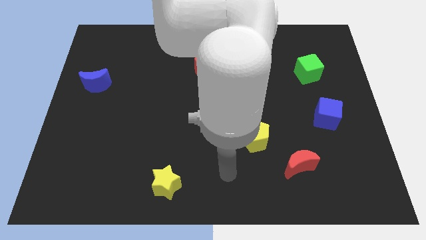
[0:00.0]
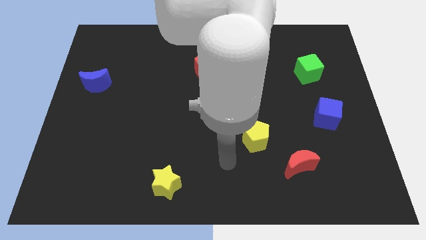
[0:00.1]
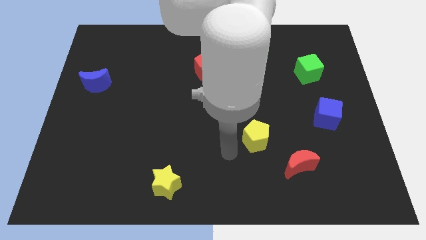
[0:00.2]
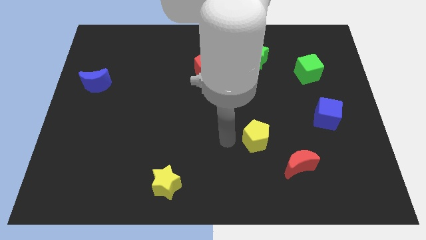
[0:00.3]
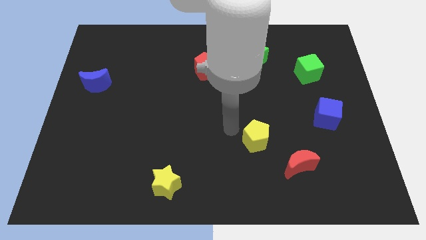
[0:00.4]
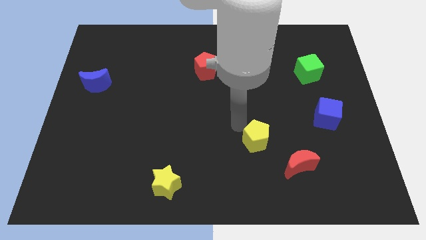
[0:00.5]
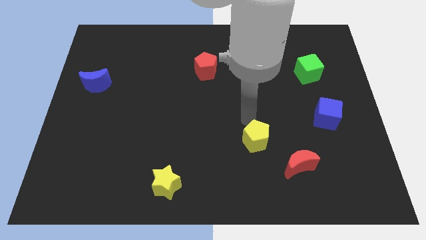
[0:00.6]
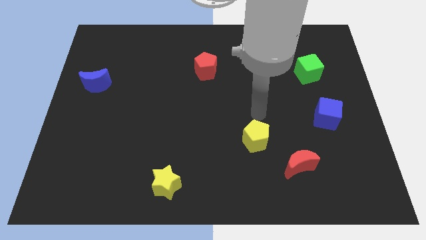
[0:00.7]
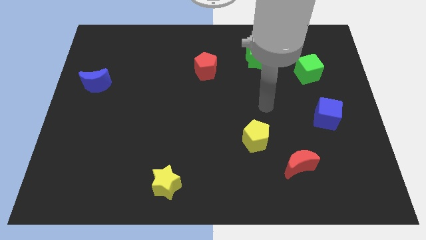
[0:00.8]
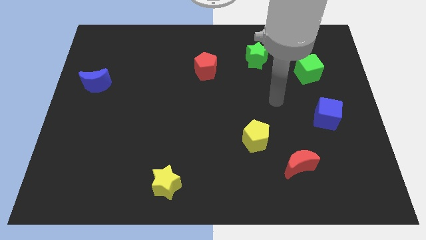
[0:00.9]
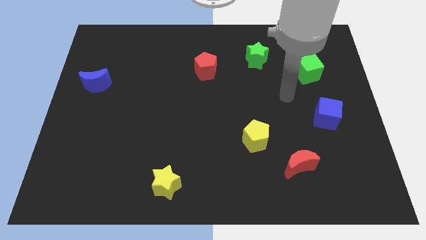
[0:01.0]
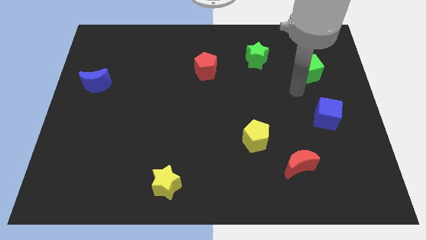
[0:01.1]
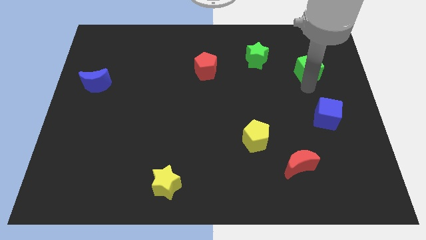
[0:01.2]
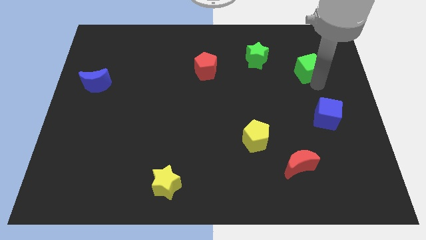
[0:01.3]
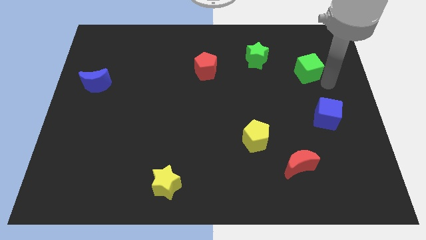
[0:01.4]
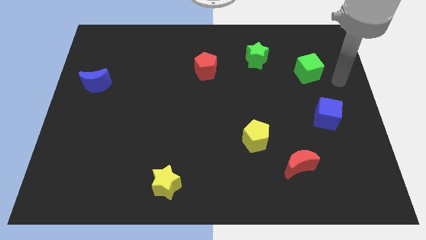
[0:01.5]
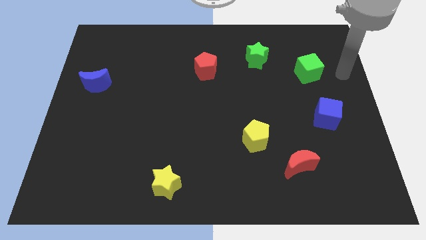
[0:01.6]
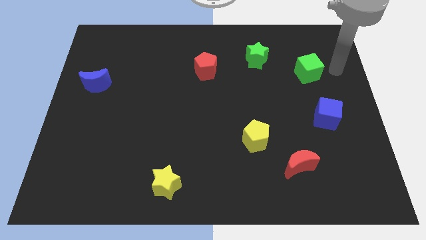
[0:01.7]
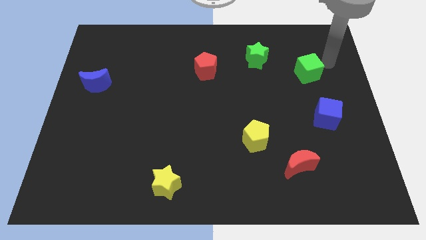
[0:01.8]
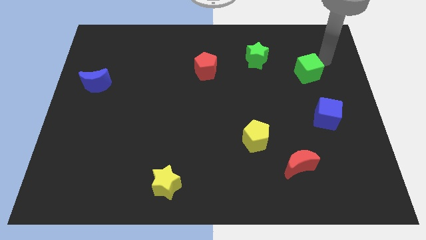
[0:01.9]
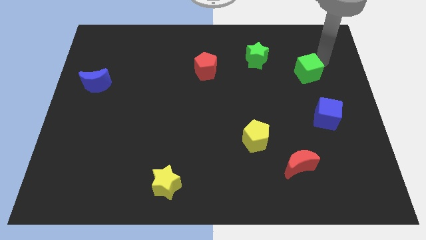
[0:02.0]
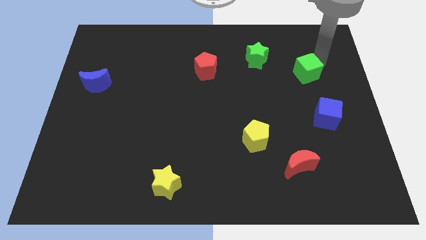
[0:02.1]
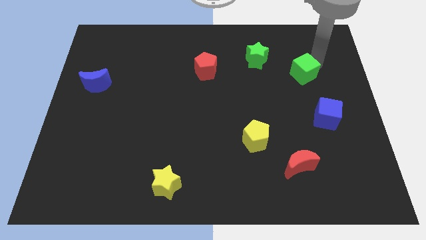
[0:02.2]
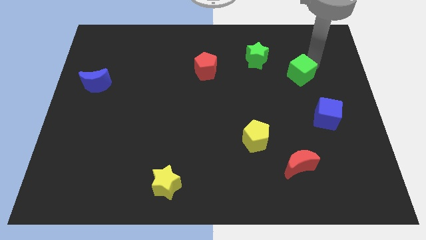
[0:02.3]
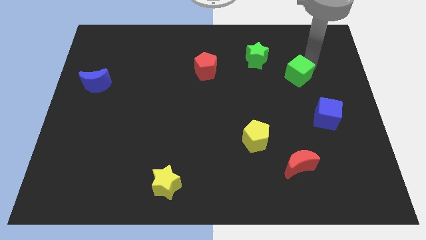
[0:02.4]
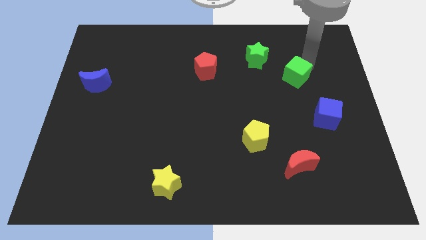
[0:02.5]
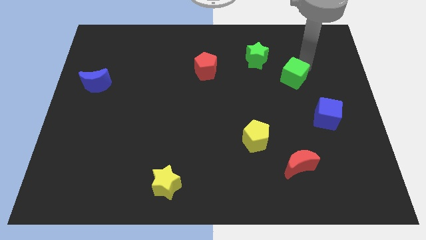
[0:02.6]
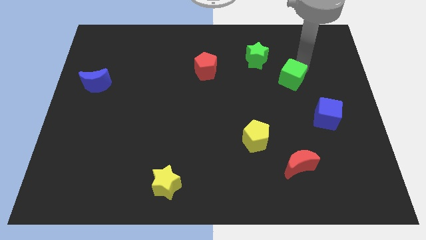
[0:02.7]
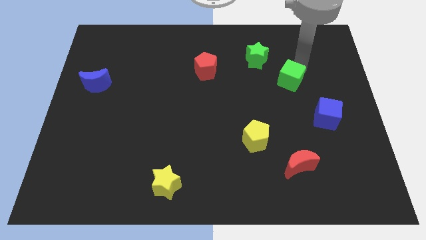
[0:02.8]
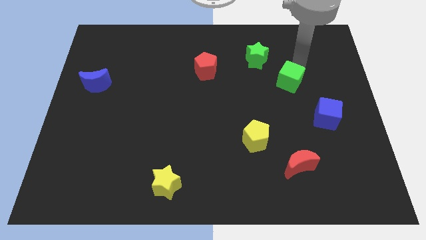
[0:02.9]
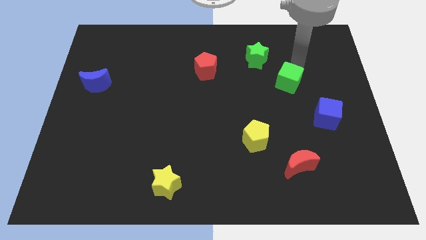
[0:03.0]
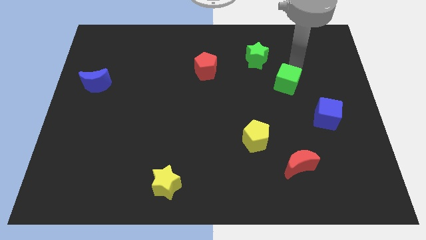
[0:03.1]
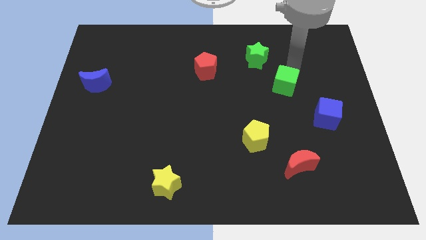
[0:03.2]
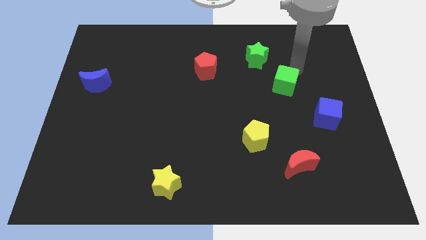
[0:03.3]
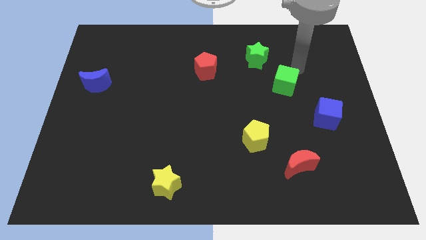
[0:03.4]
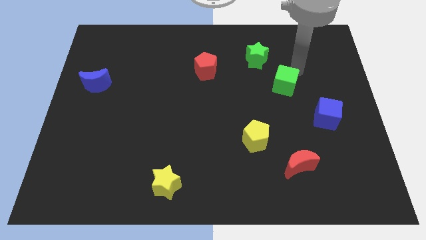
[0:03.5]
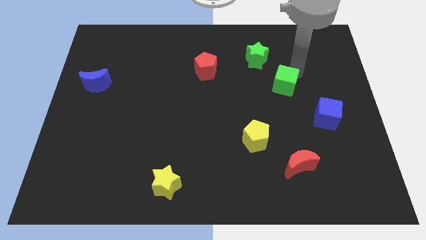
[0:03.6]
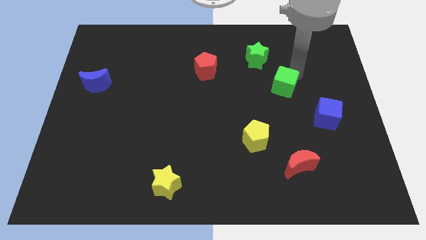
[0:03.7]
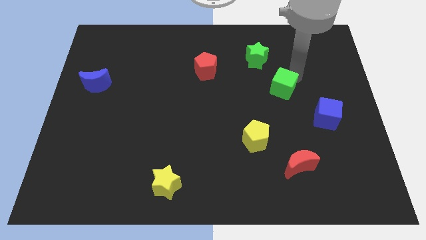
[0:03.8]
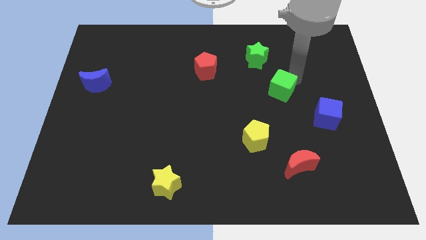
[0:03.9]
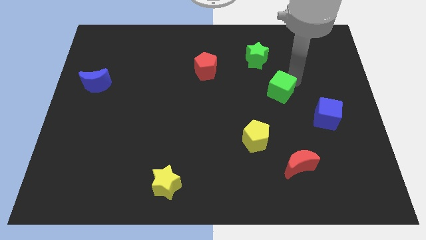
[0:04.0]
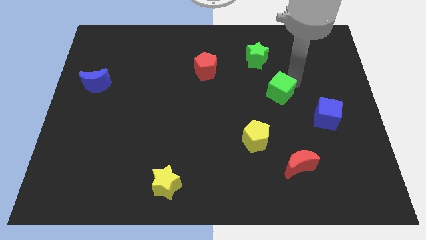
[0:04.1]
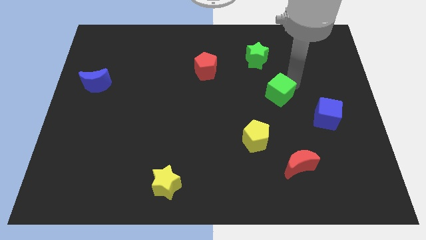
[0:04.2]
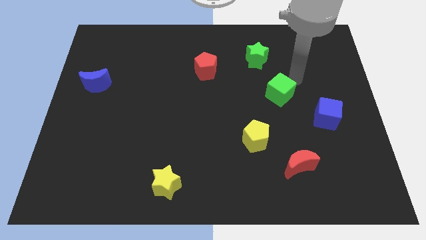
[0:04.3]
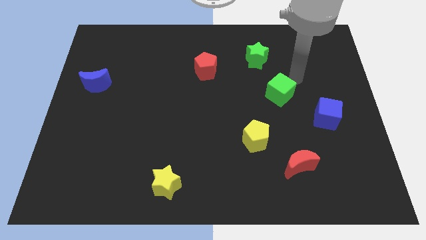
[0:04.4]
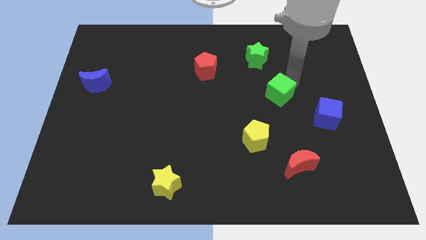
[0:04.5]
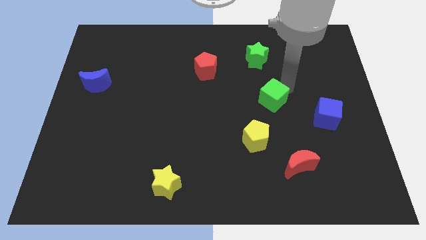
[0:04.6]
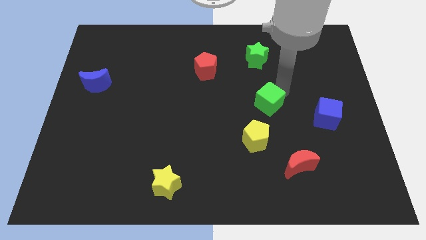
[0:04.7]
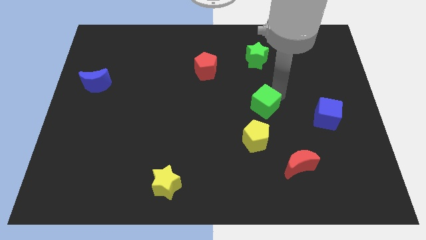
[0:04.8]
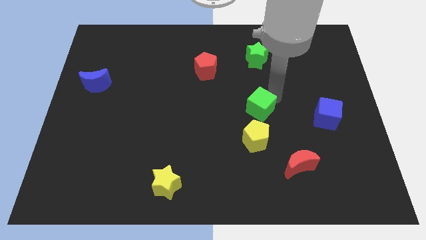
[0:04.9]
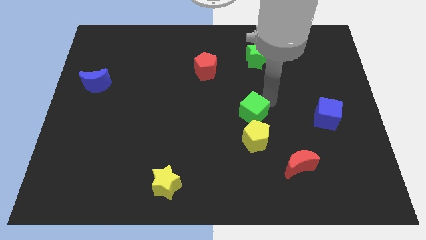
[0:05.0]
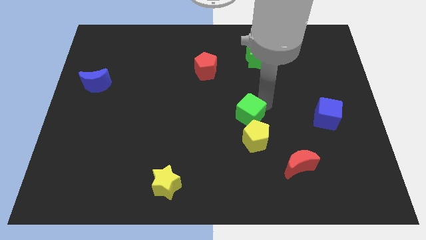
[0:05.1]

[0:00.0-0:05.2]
slide the green cube diagonally downwards and to the left

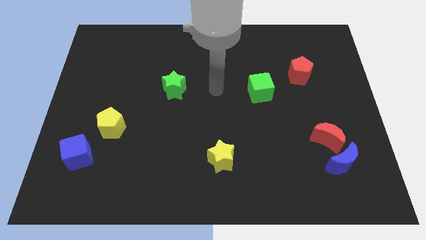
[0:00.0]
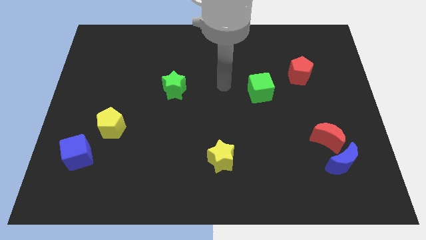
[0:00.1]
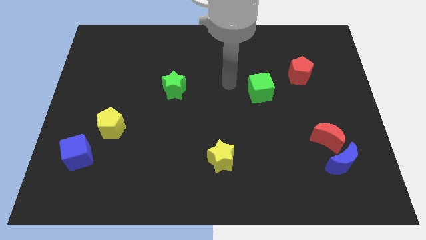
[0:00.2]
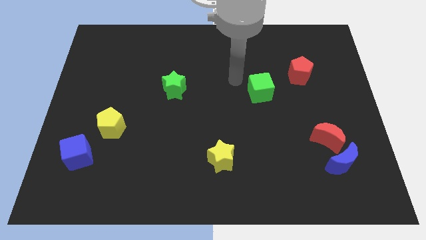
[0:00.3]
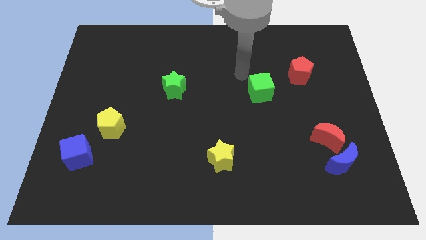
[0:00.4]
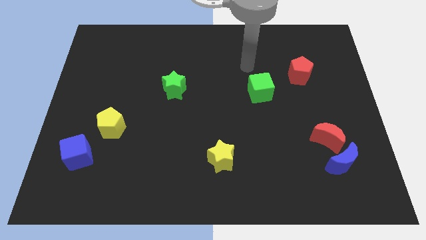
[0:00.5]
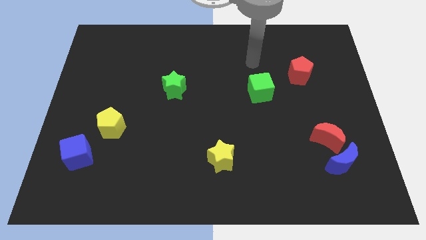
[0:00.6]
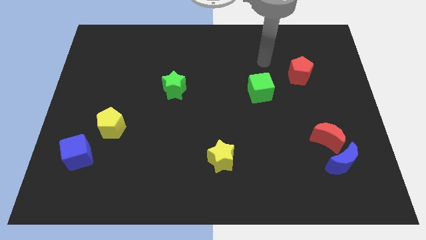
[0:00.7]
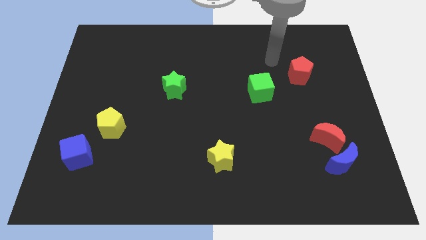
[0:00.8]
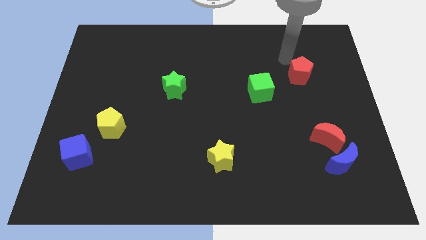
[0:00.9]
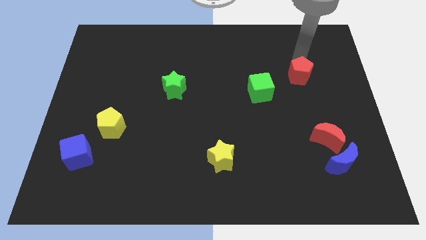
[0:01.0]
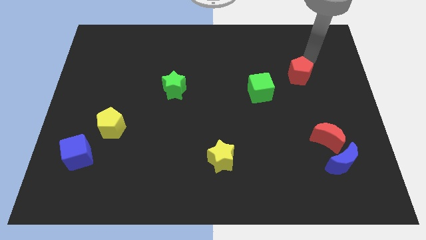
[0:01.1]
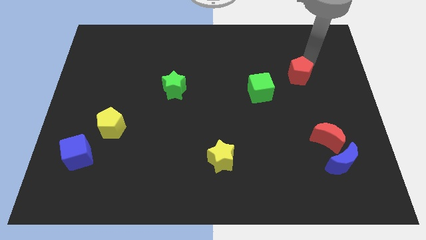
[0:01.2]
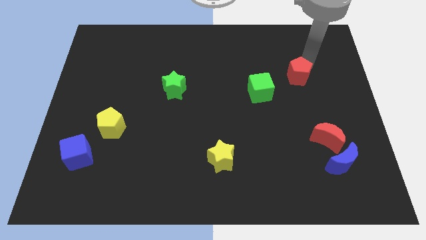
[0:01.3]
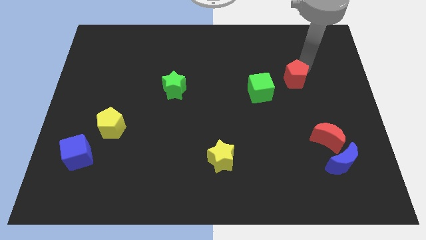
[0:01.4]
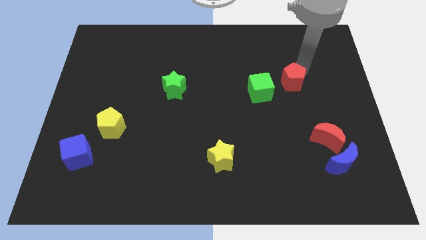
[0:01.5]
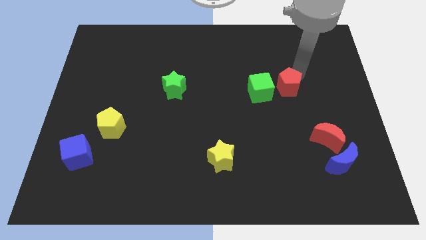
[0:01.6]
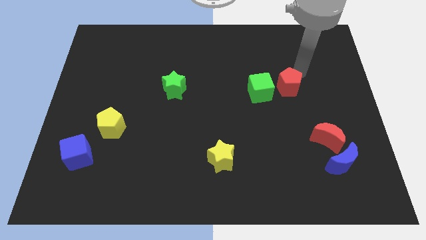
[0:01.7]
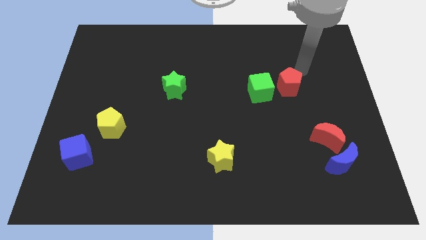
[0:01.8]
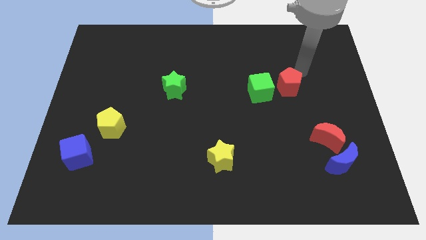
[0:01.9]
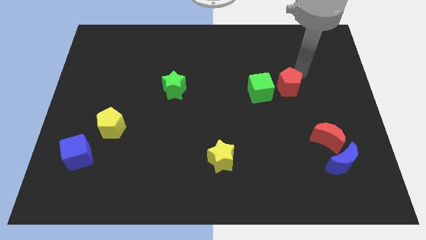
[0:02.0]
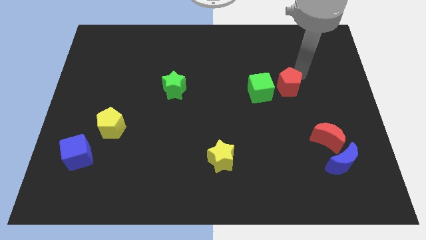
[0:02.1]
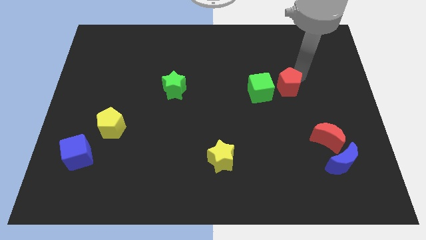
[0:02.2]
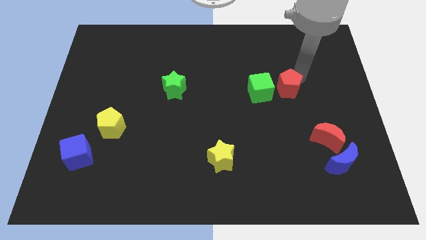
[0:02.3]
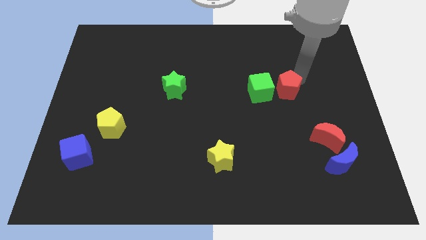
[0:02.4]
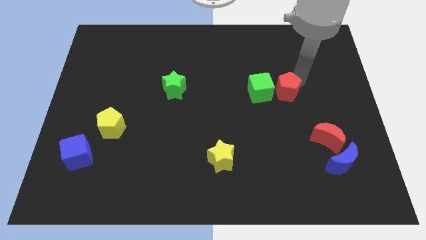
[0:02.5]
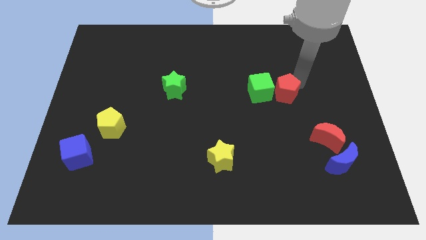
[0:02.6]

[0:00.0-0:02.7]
slightly push the red pentagon diagonally down and left
